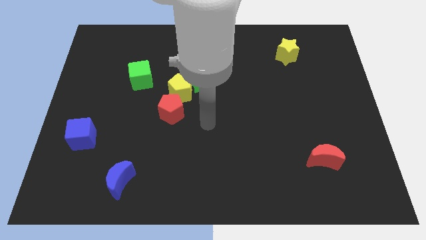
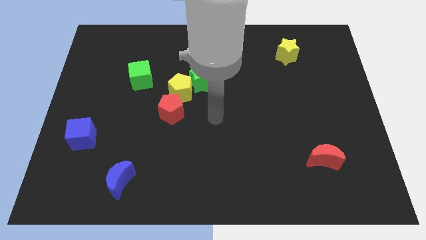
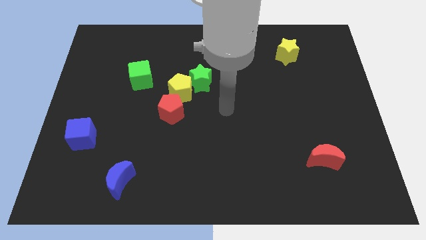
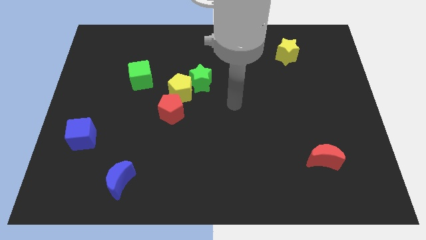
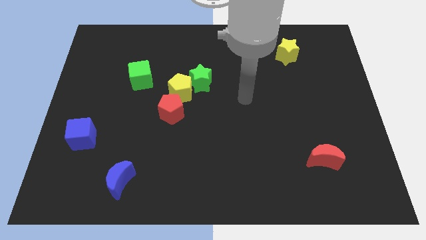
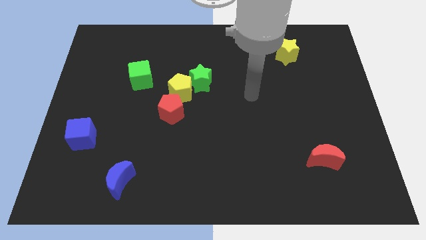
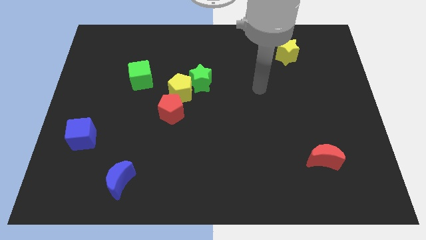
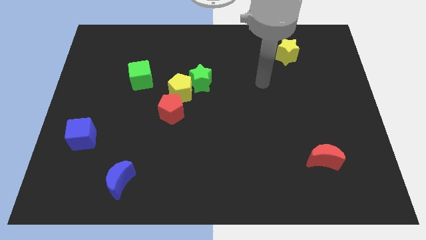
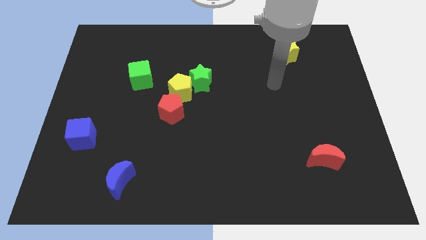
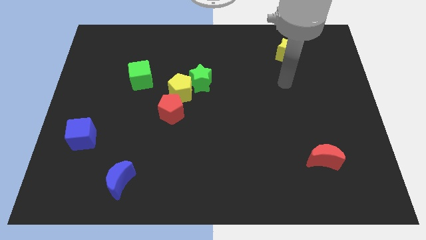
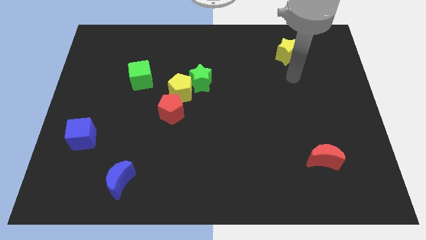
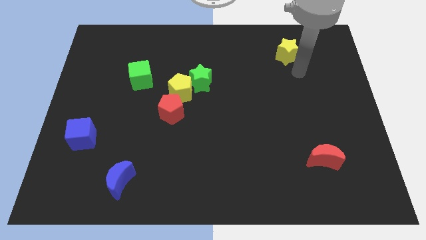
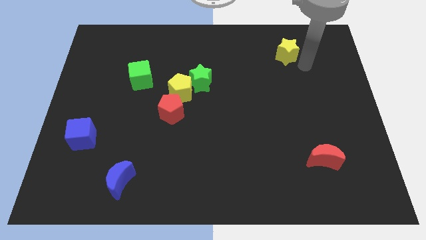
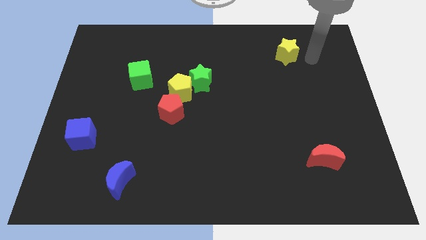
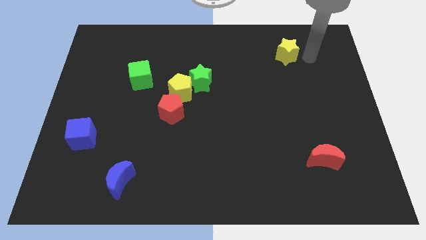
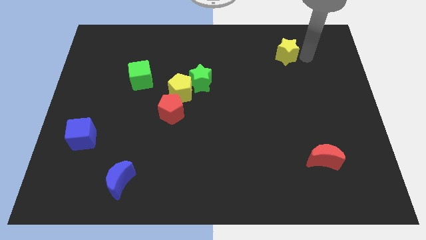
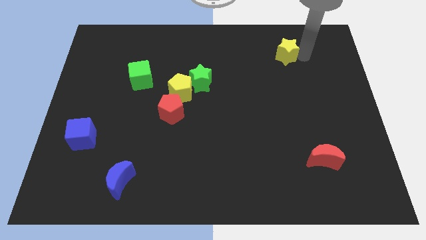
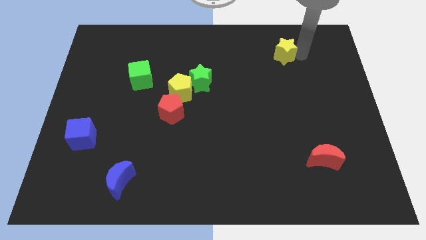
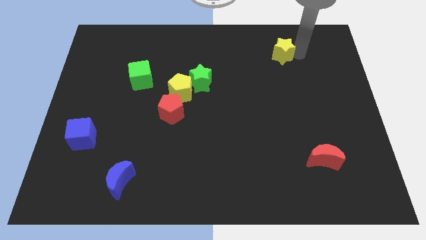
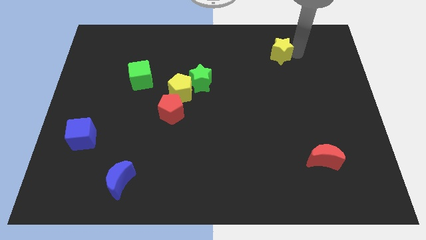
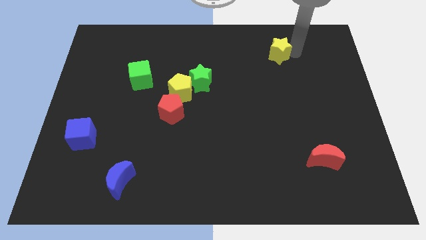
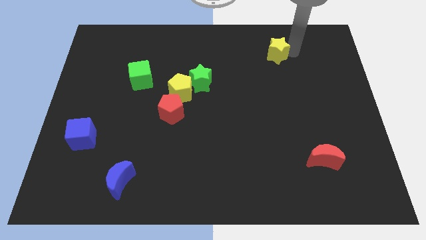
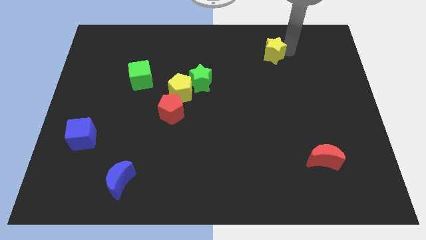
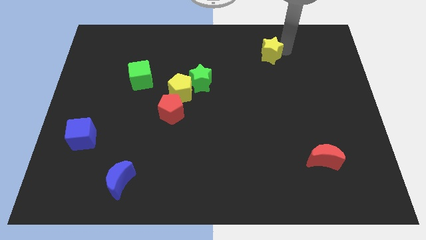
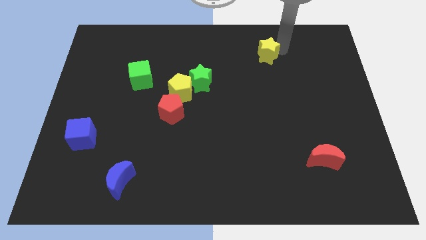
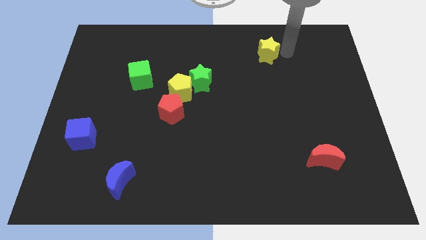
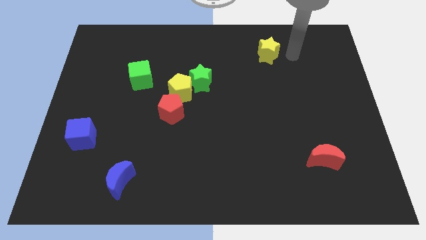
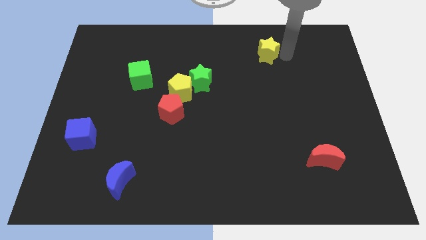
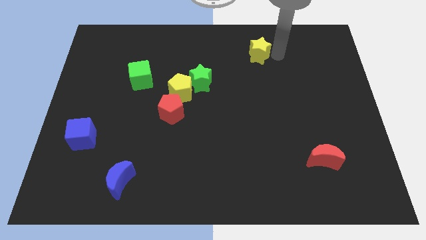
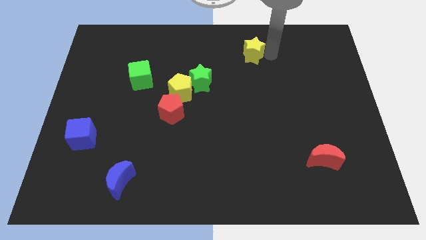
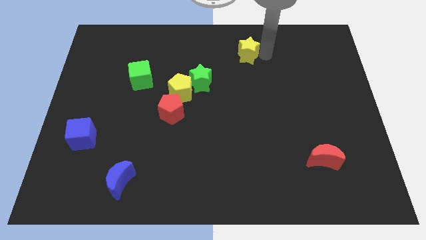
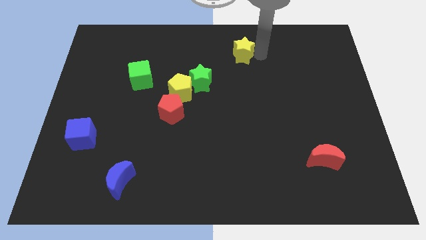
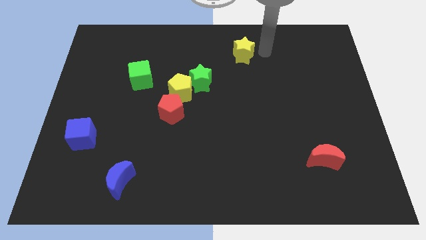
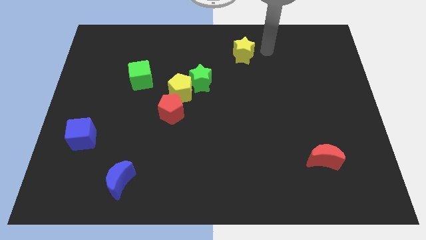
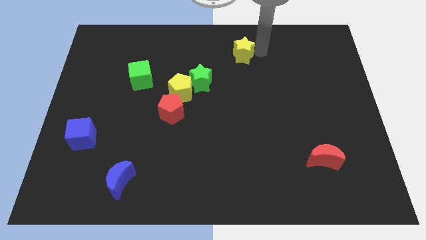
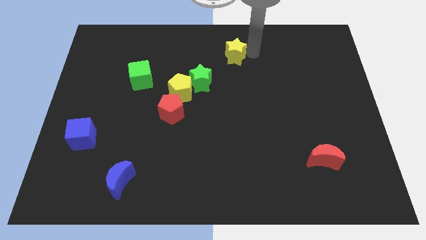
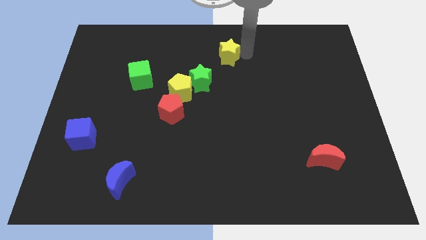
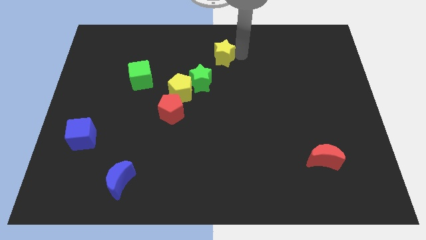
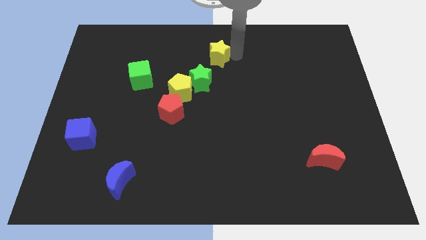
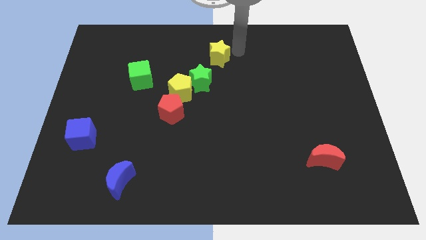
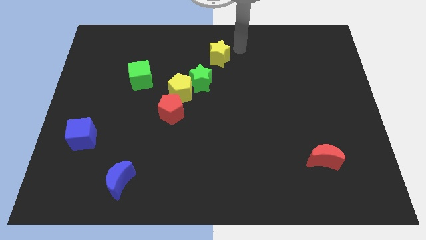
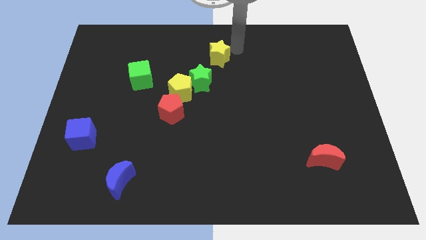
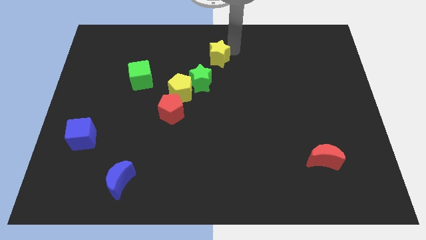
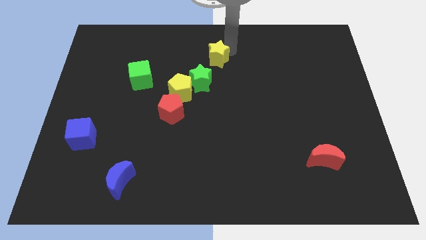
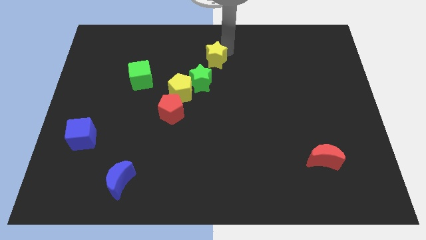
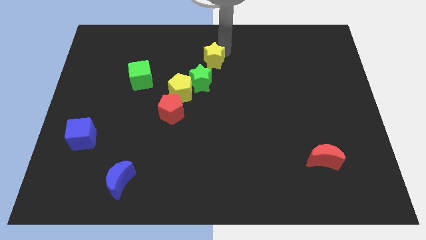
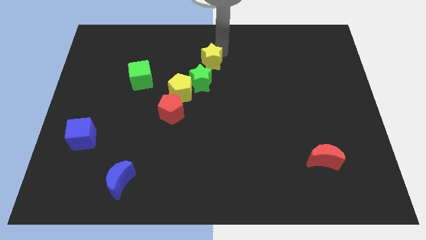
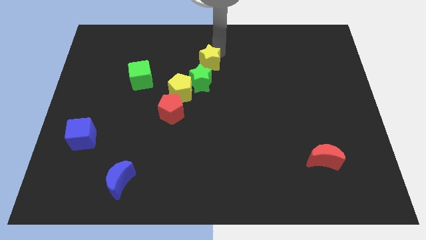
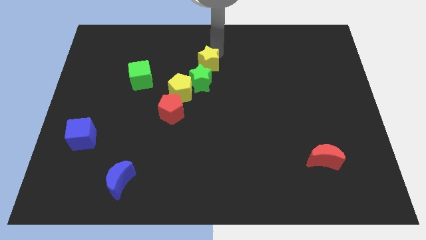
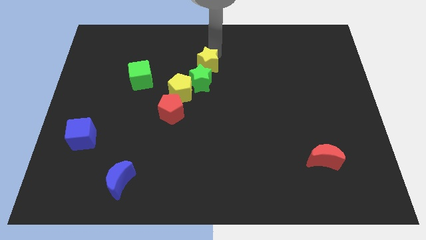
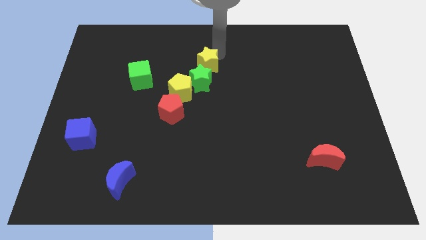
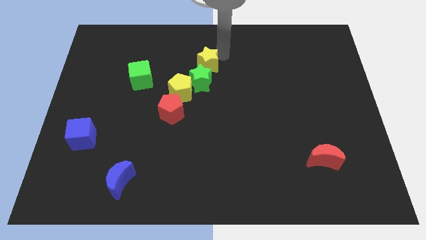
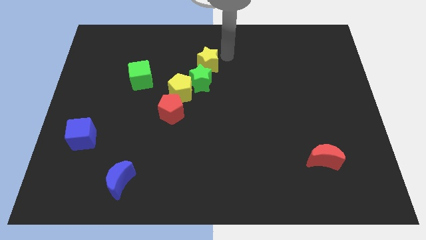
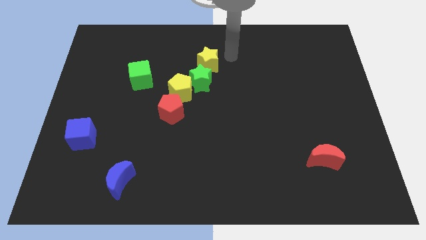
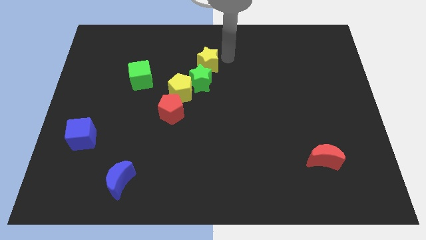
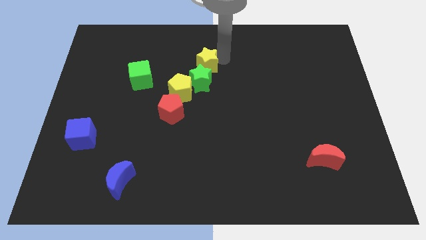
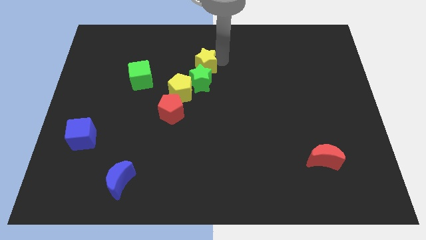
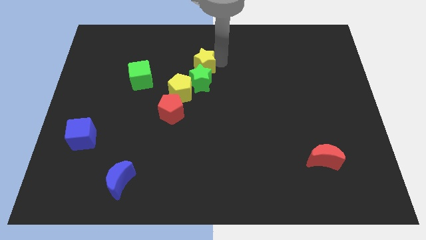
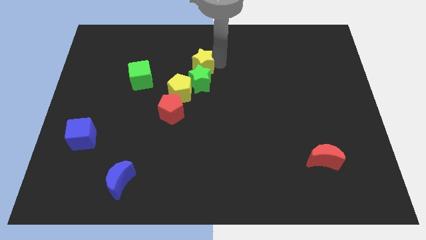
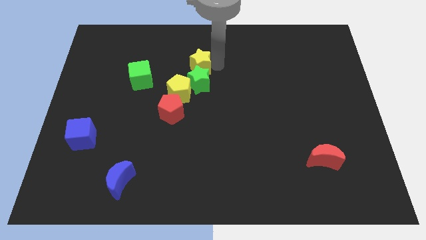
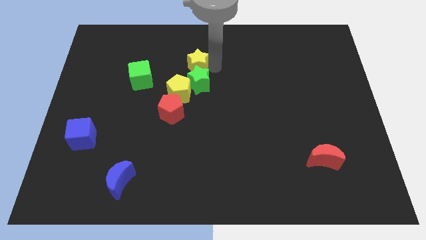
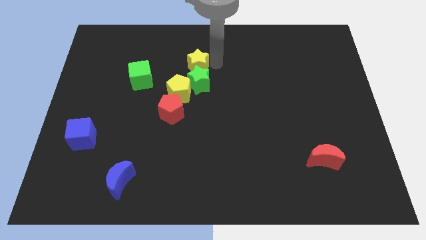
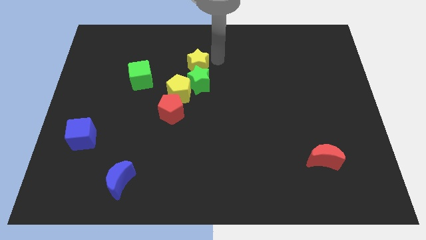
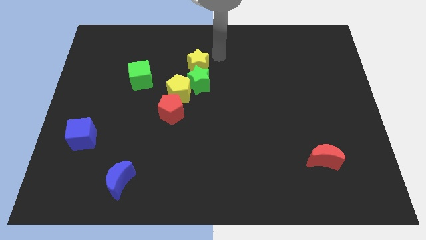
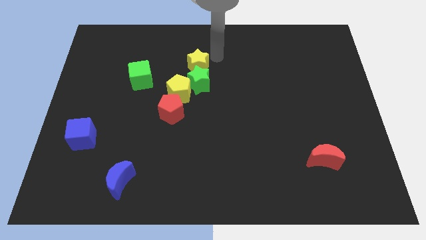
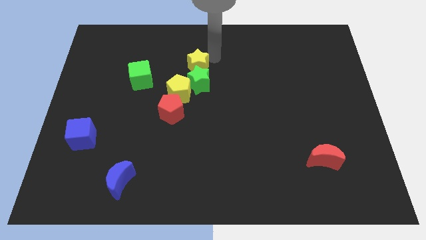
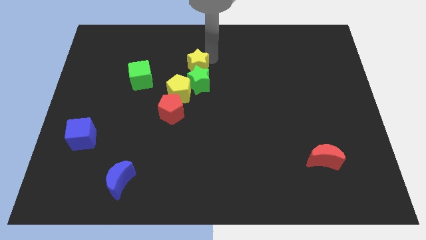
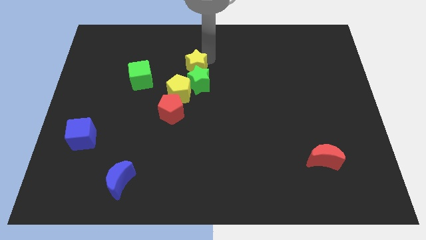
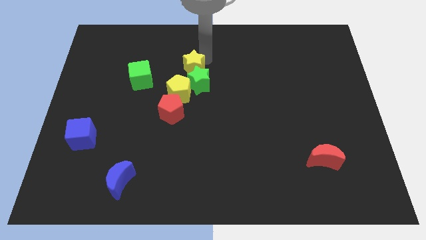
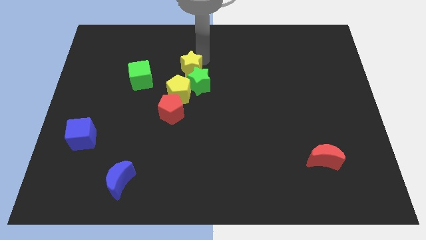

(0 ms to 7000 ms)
put the yellow star above the red pentagon

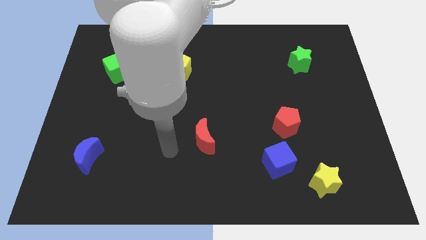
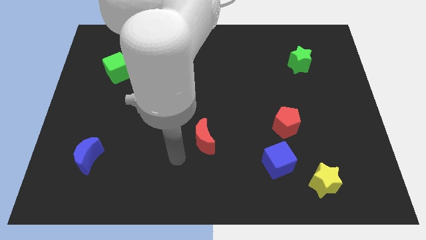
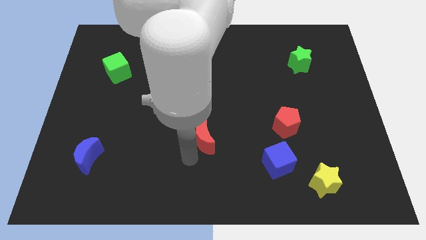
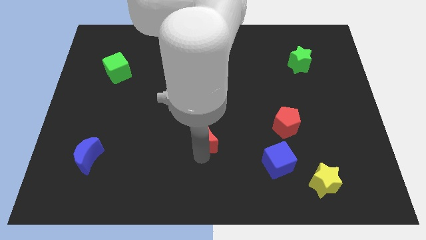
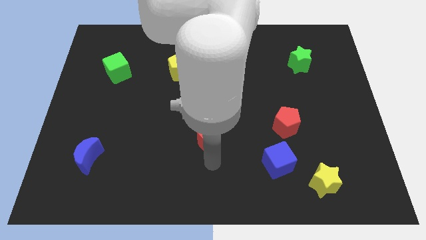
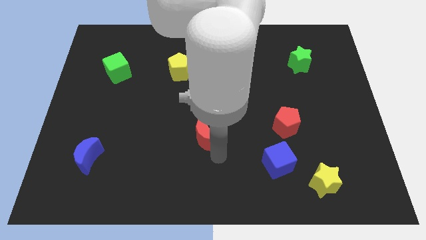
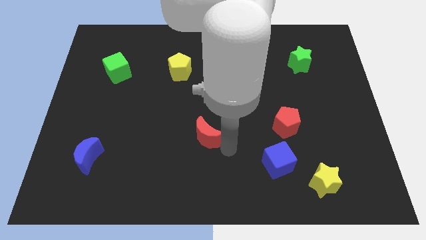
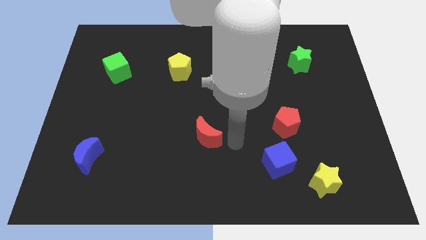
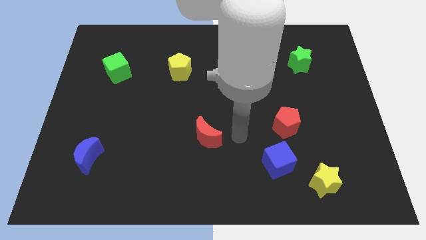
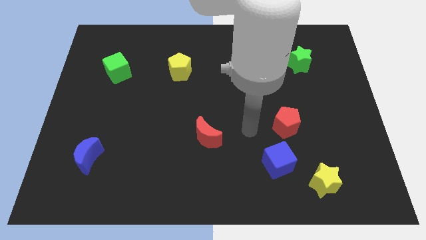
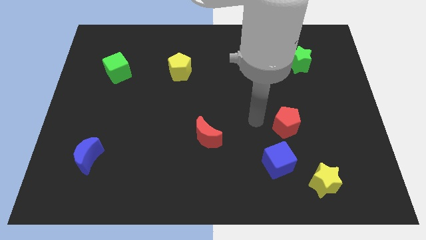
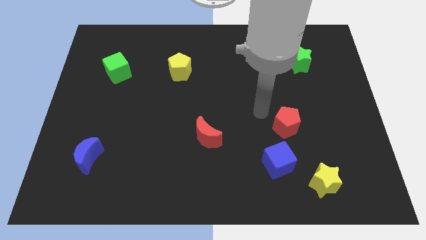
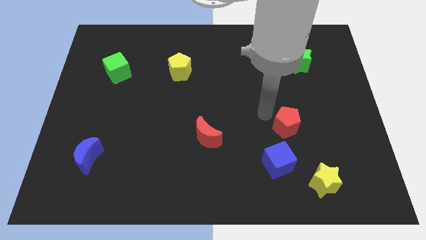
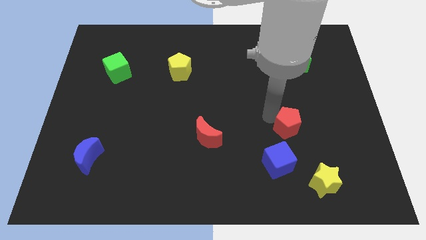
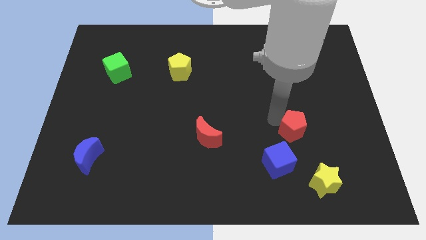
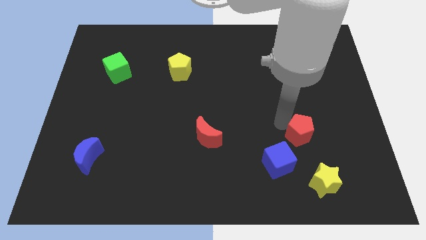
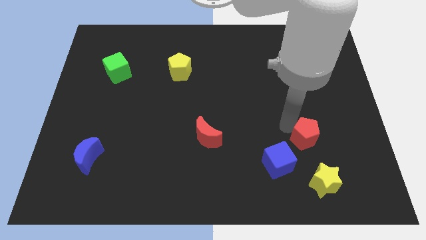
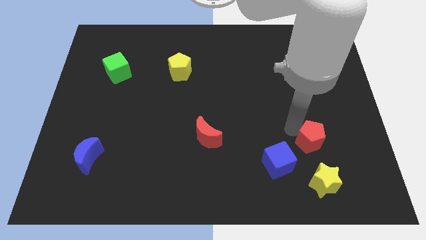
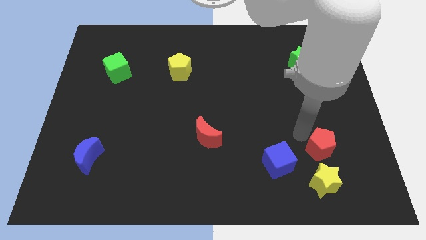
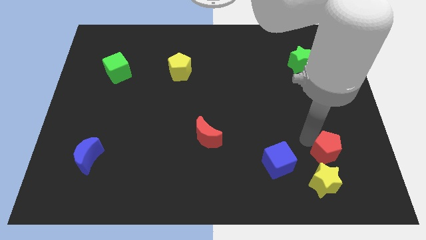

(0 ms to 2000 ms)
slide the red pentagon to the top right side of the yellow star
